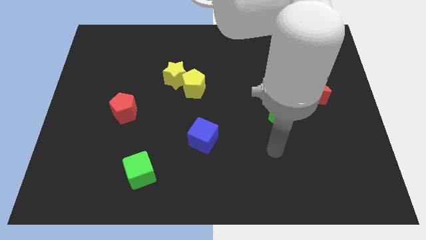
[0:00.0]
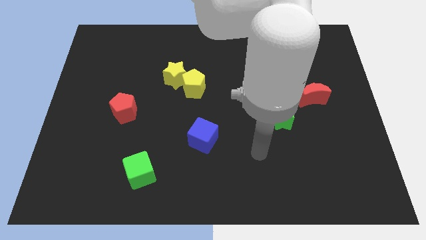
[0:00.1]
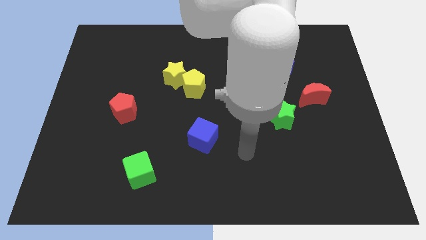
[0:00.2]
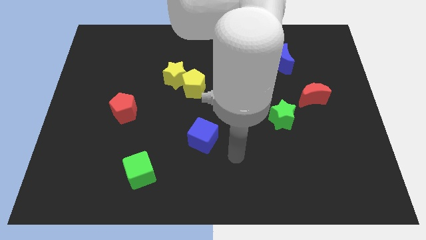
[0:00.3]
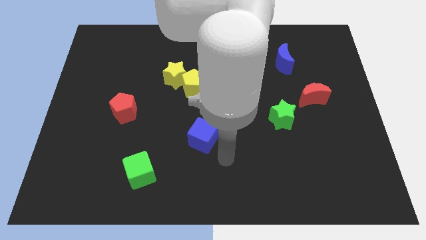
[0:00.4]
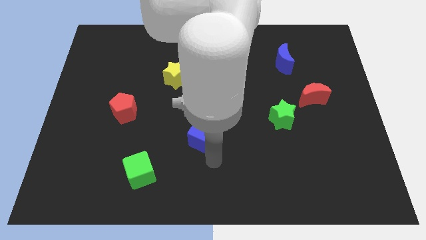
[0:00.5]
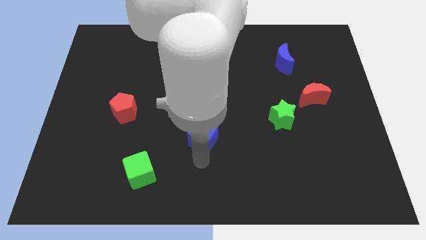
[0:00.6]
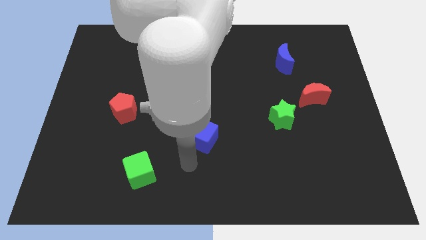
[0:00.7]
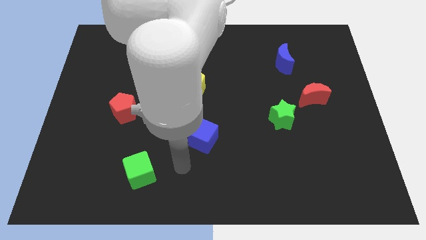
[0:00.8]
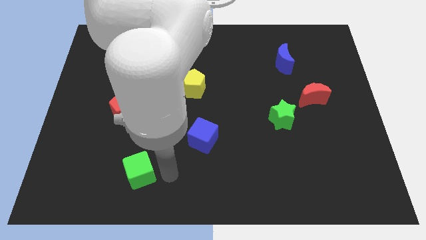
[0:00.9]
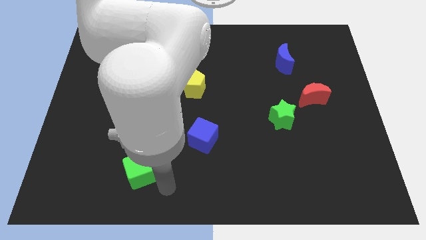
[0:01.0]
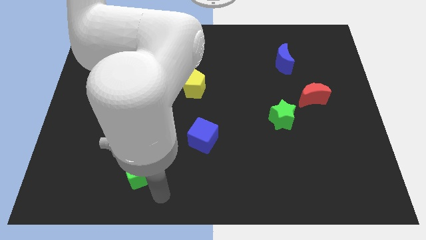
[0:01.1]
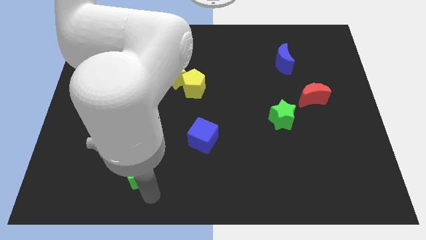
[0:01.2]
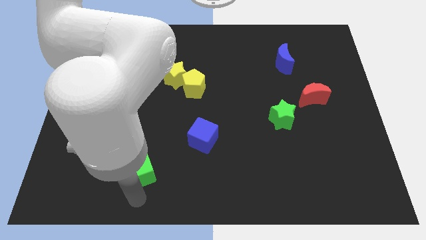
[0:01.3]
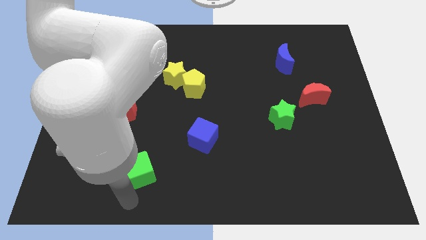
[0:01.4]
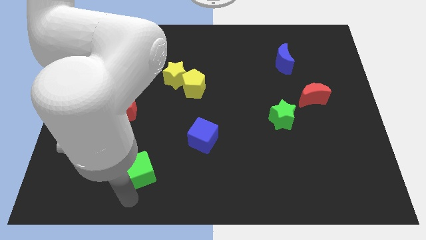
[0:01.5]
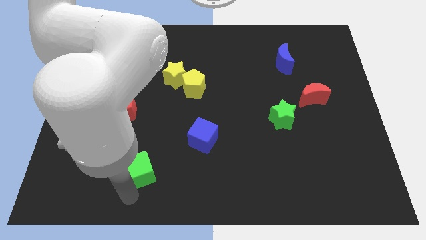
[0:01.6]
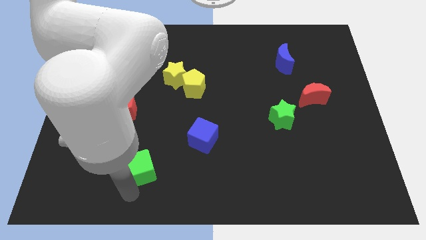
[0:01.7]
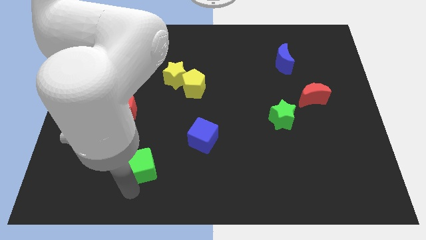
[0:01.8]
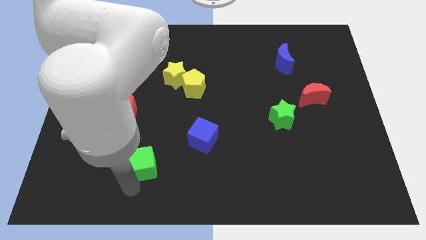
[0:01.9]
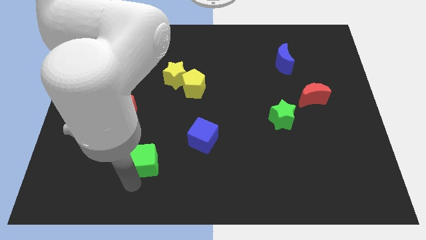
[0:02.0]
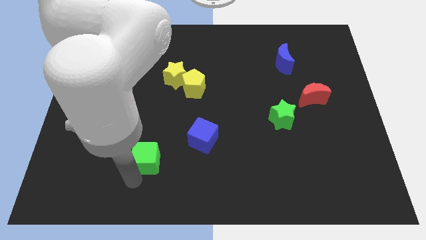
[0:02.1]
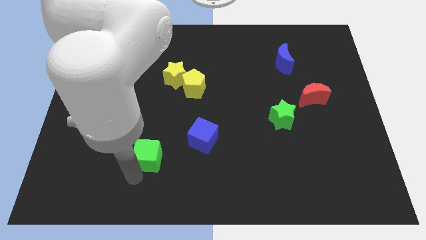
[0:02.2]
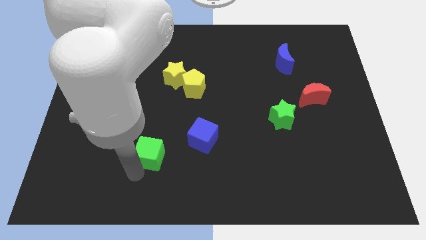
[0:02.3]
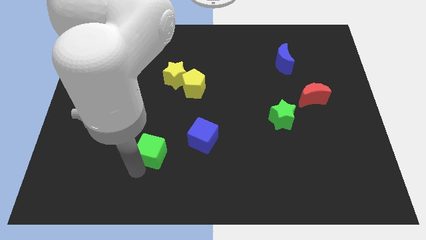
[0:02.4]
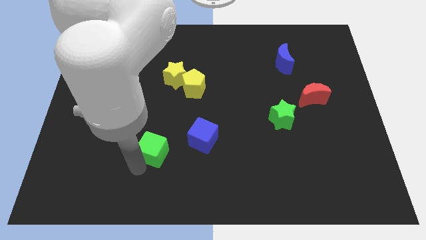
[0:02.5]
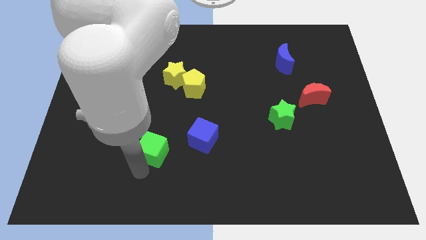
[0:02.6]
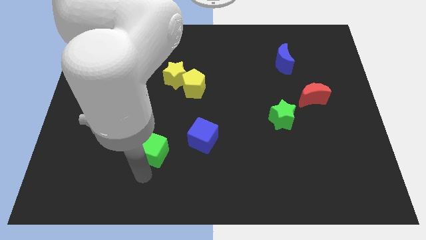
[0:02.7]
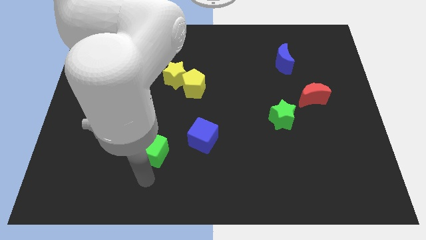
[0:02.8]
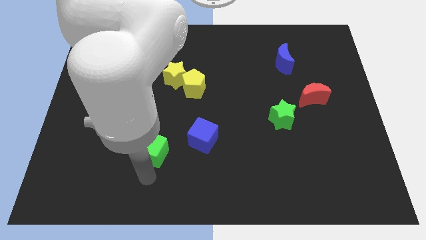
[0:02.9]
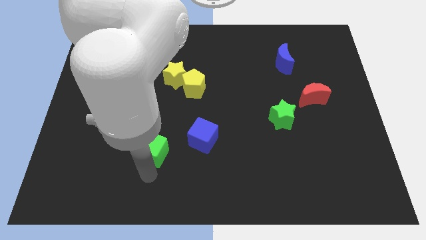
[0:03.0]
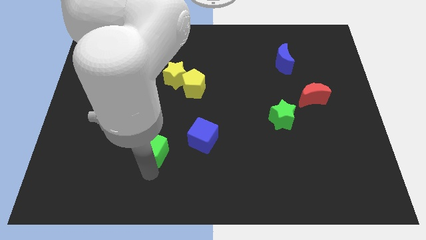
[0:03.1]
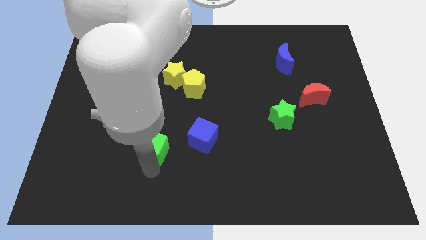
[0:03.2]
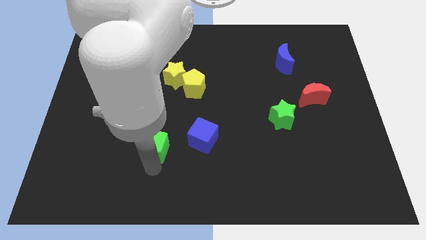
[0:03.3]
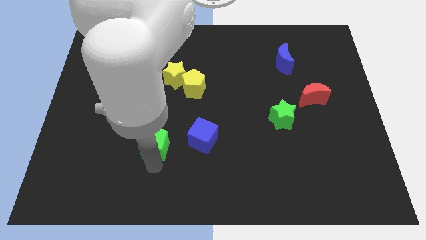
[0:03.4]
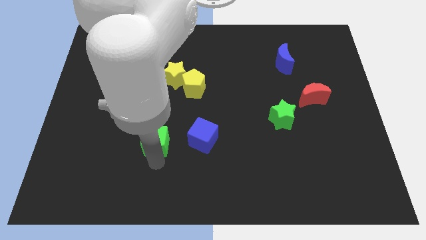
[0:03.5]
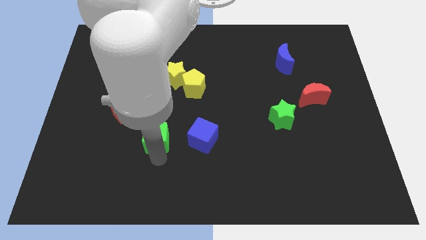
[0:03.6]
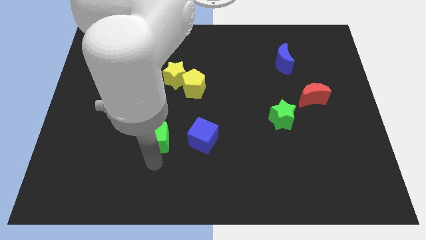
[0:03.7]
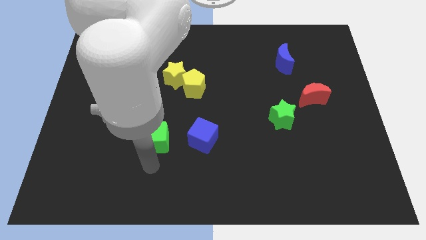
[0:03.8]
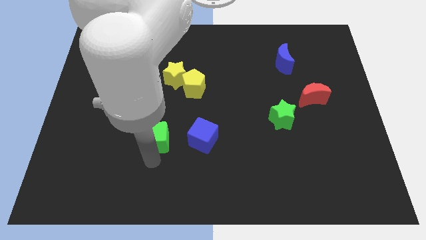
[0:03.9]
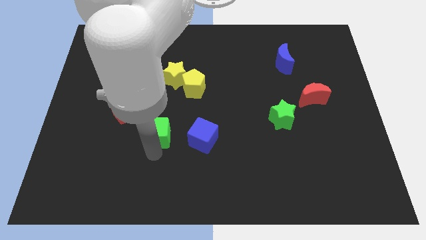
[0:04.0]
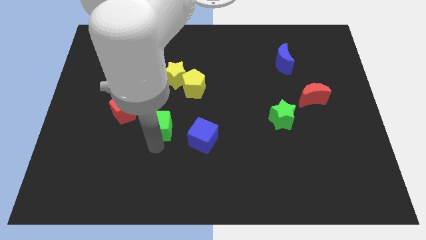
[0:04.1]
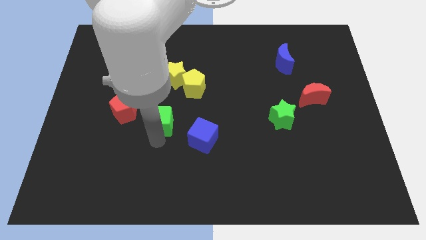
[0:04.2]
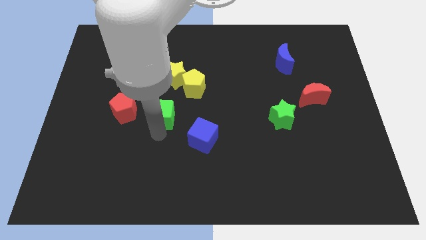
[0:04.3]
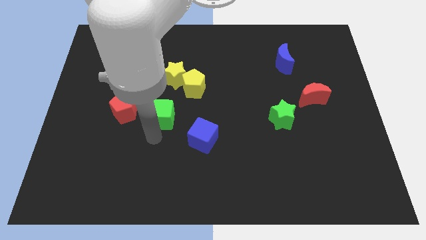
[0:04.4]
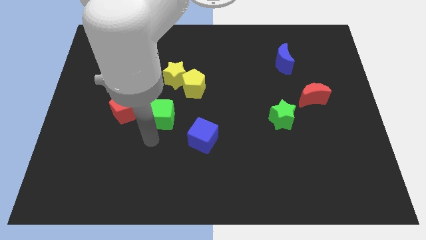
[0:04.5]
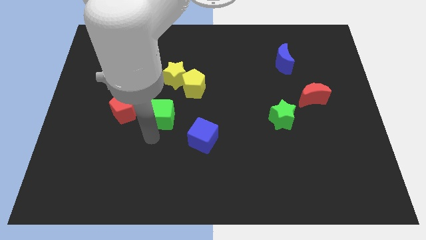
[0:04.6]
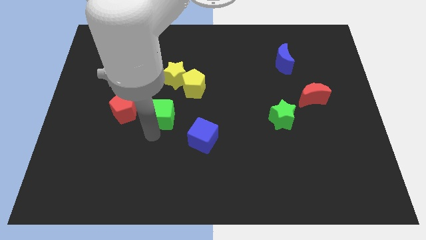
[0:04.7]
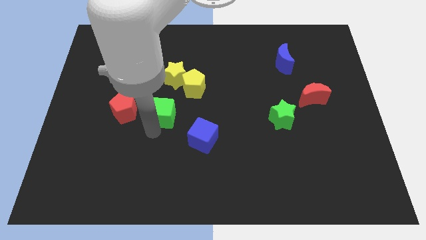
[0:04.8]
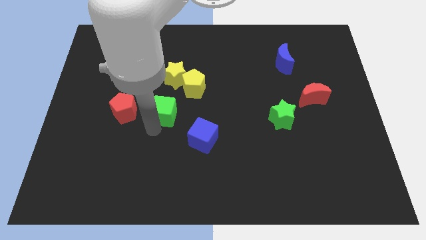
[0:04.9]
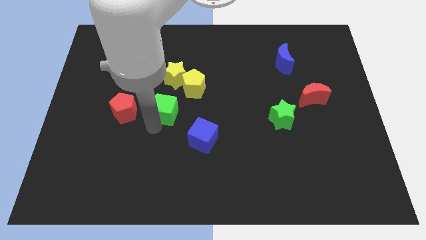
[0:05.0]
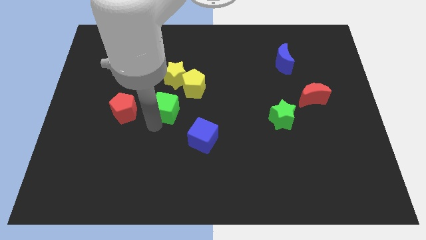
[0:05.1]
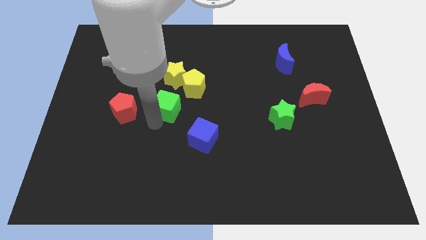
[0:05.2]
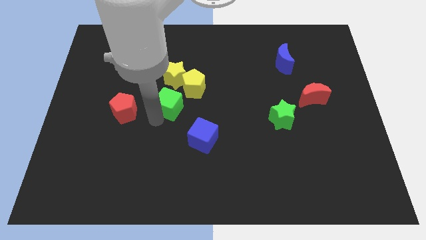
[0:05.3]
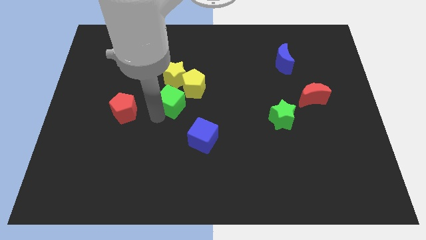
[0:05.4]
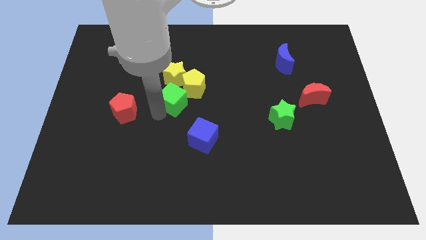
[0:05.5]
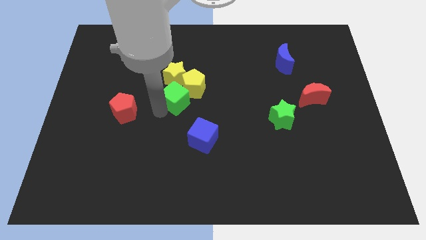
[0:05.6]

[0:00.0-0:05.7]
move the green cube to the yellow pentagon

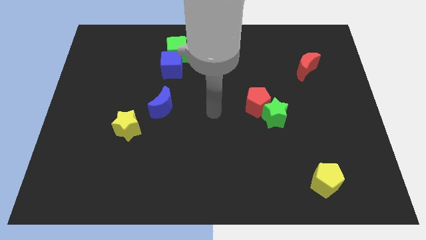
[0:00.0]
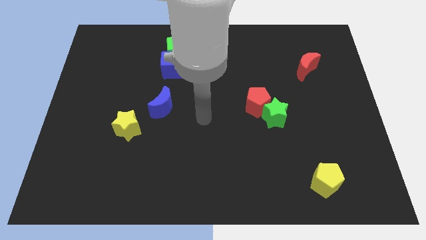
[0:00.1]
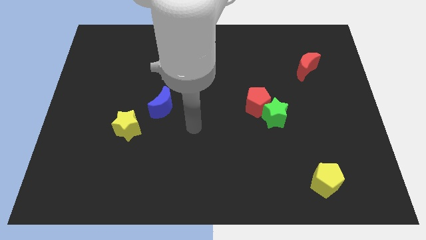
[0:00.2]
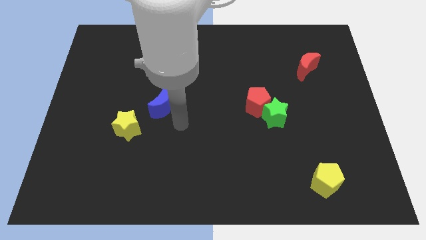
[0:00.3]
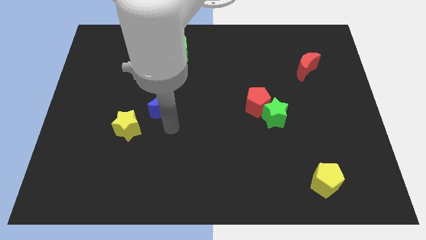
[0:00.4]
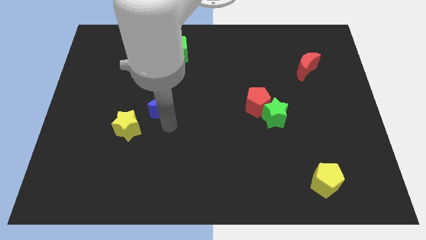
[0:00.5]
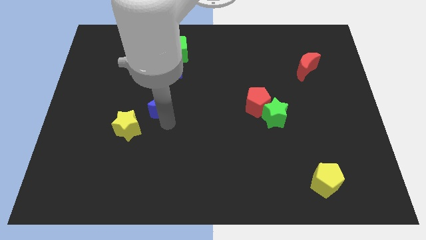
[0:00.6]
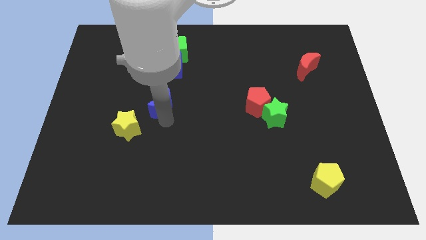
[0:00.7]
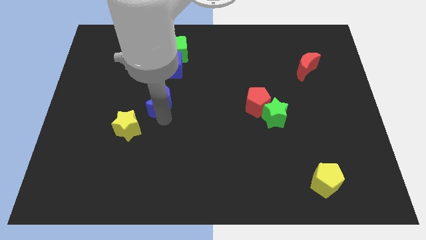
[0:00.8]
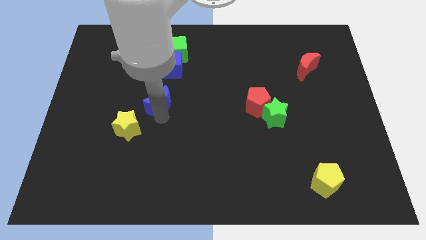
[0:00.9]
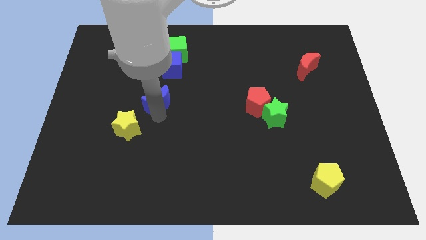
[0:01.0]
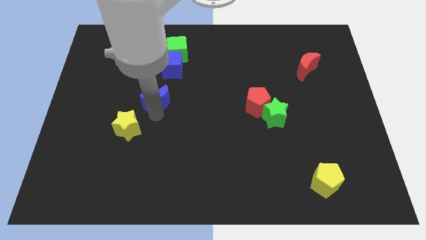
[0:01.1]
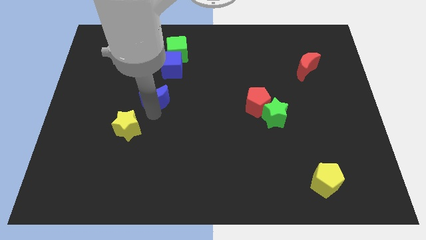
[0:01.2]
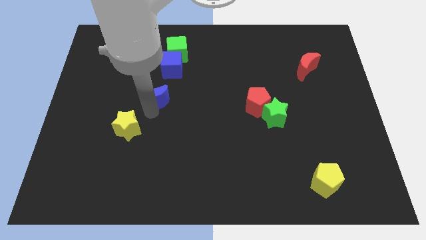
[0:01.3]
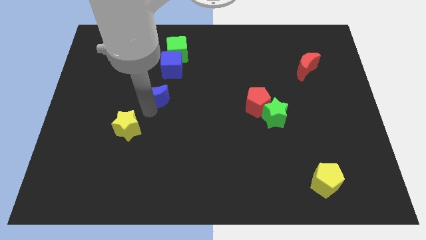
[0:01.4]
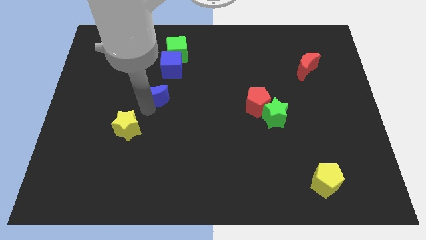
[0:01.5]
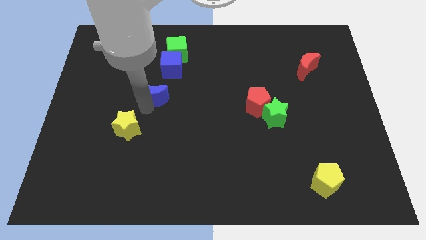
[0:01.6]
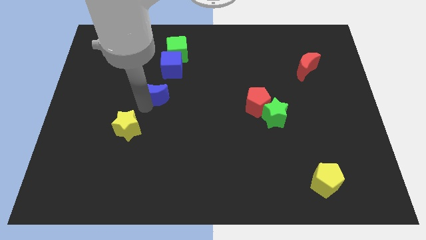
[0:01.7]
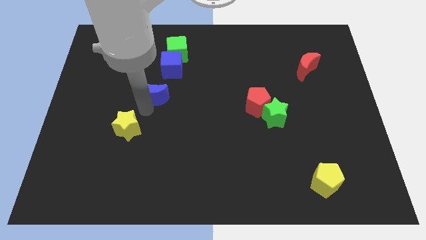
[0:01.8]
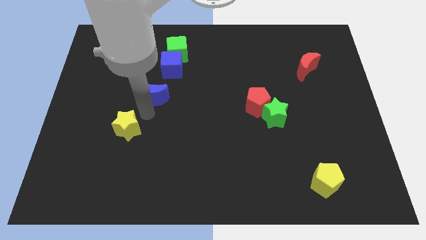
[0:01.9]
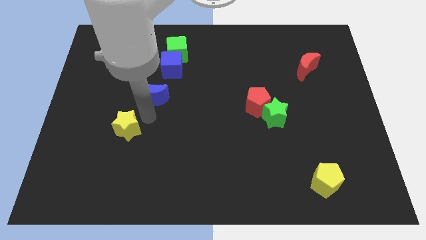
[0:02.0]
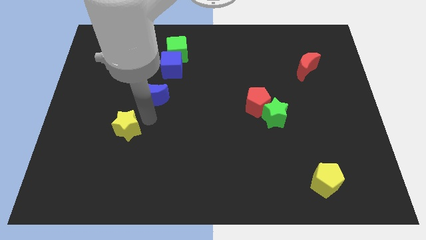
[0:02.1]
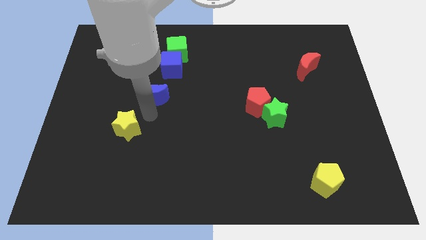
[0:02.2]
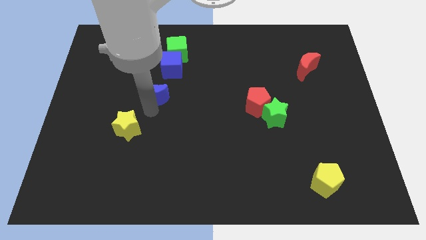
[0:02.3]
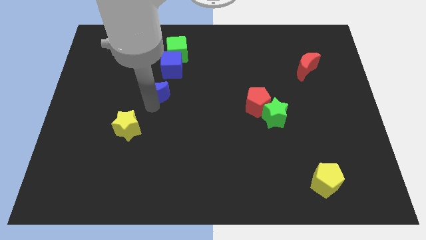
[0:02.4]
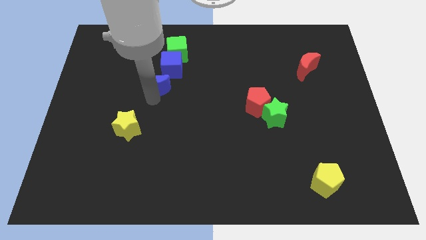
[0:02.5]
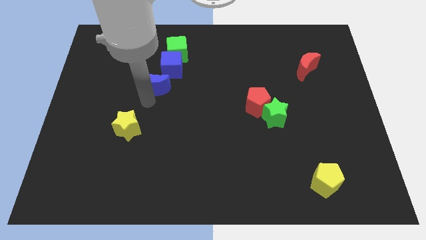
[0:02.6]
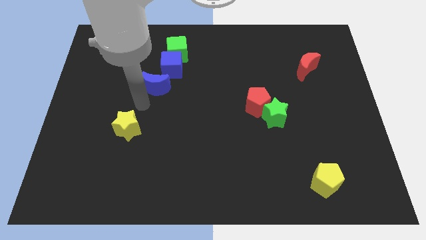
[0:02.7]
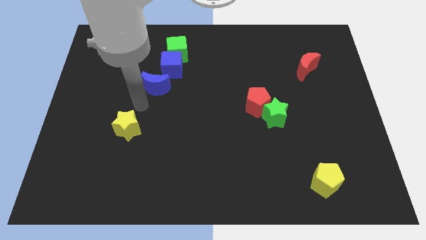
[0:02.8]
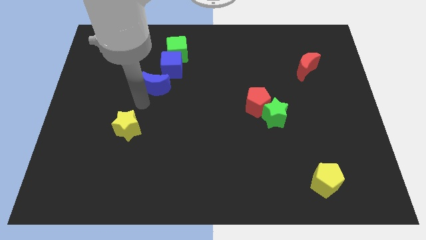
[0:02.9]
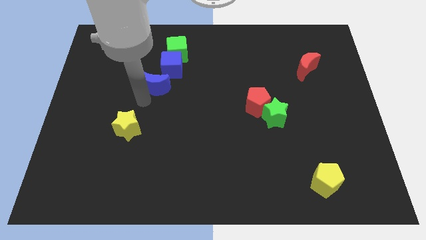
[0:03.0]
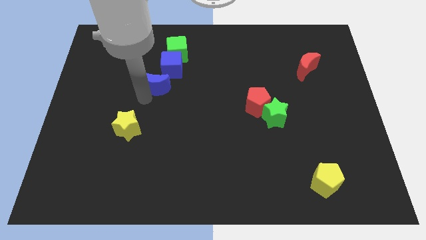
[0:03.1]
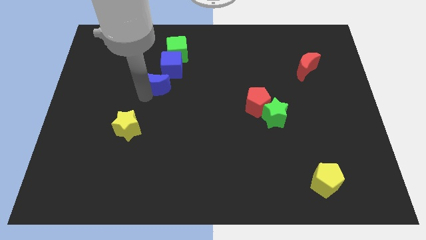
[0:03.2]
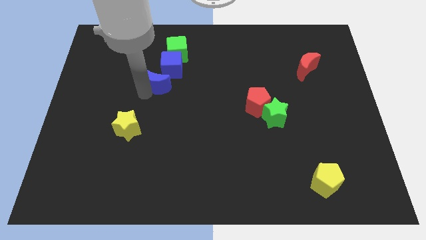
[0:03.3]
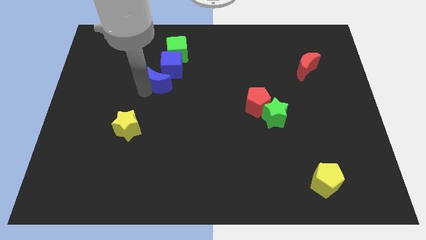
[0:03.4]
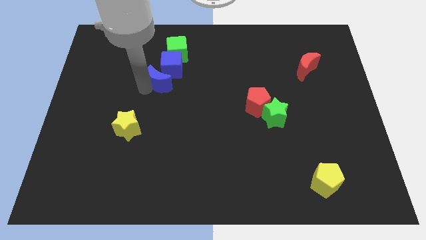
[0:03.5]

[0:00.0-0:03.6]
put the blue moon next to the blue cube
